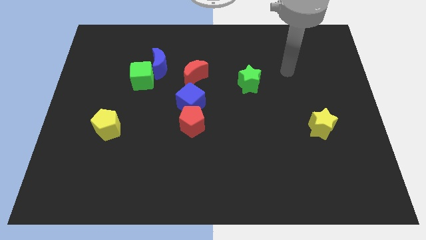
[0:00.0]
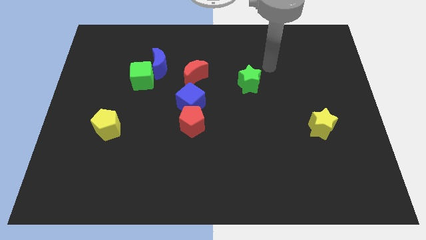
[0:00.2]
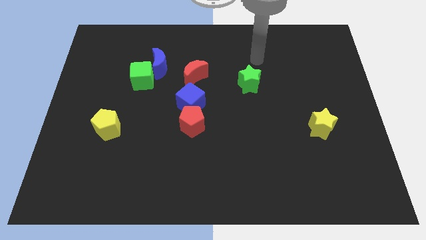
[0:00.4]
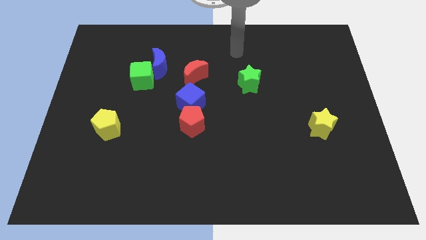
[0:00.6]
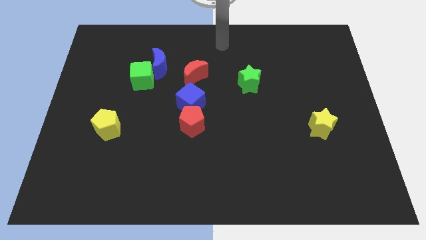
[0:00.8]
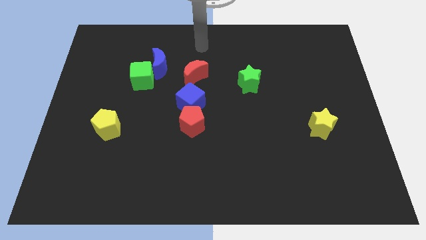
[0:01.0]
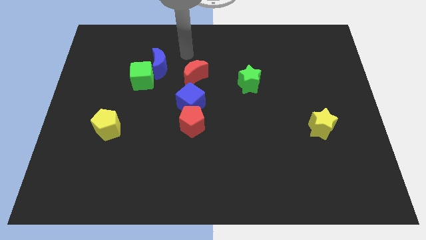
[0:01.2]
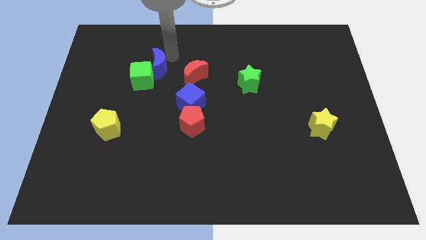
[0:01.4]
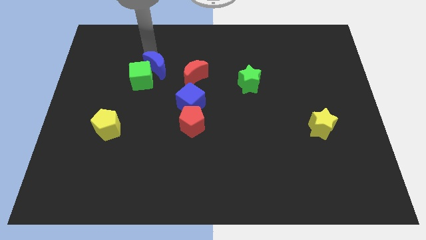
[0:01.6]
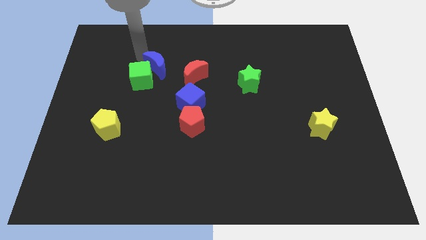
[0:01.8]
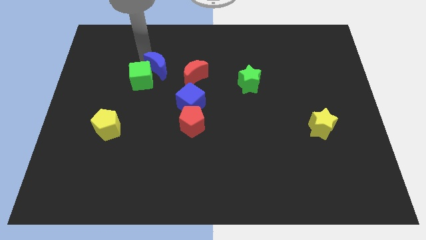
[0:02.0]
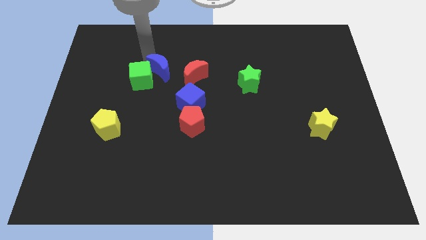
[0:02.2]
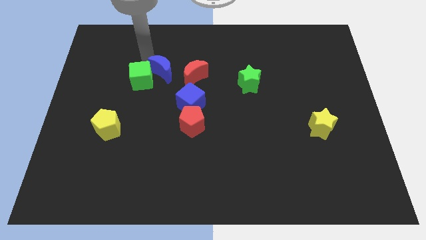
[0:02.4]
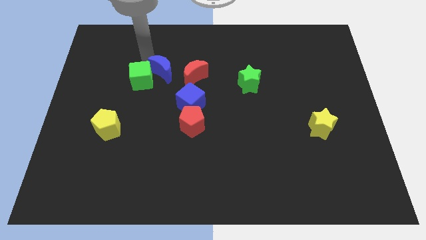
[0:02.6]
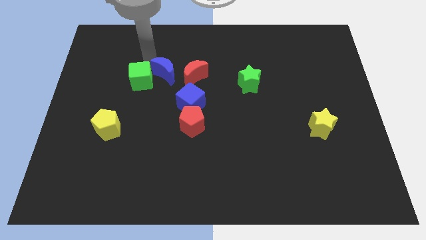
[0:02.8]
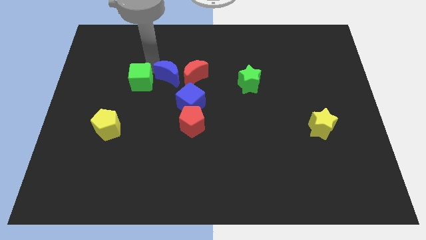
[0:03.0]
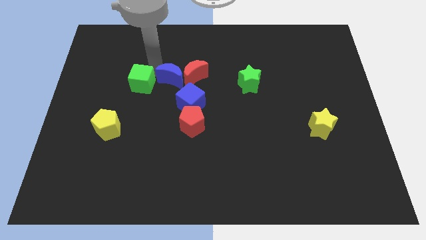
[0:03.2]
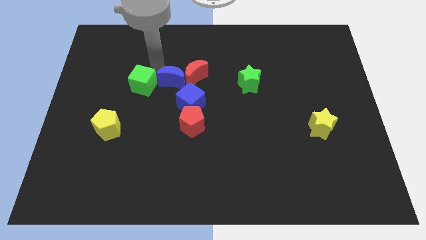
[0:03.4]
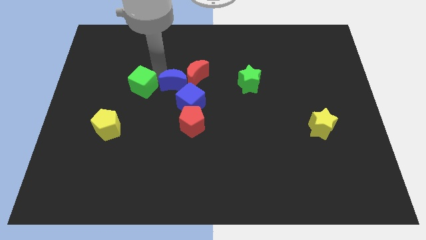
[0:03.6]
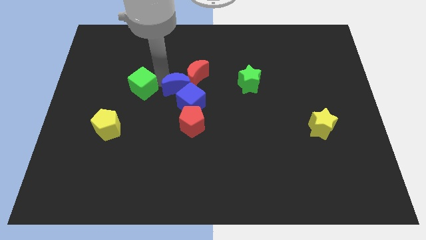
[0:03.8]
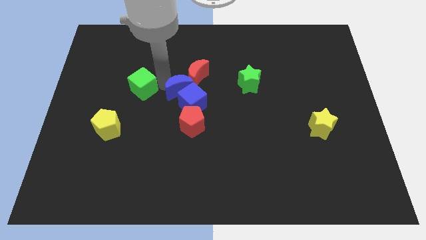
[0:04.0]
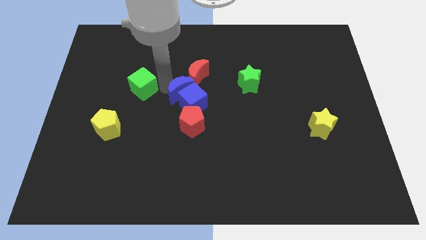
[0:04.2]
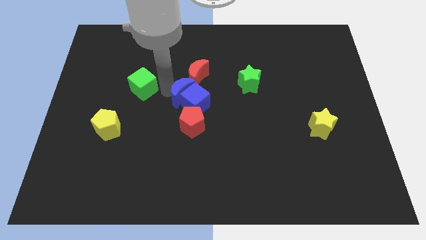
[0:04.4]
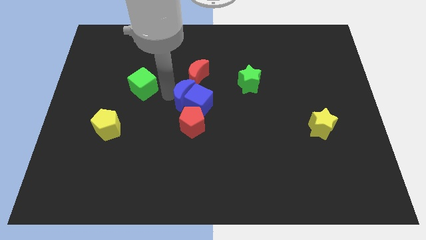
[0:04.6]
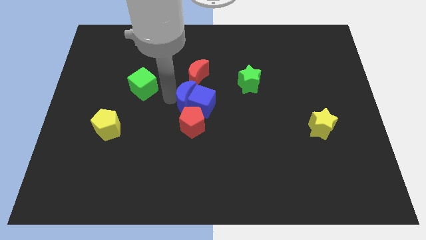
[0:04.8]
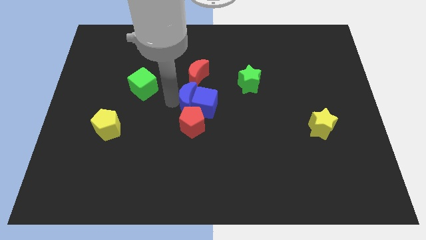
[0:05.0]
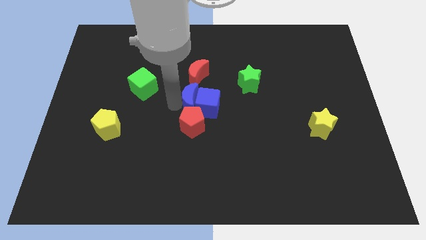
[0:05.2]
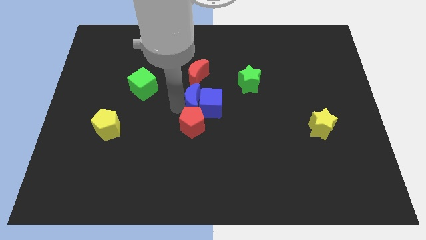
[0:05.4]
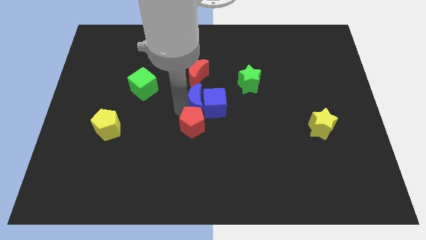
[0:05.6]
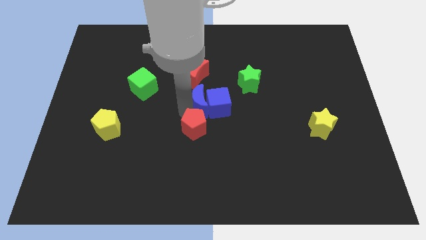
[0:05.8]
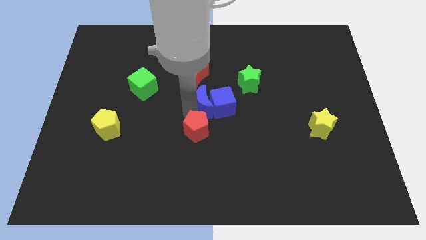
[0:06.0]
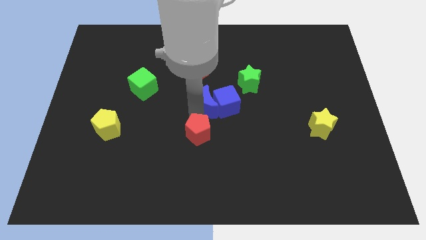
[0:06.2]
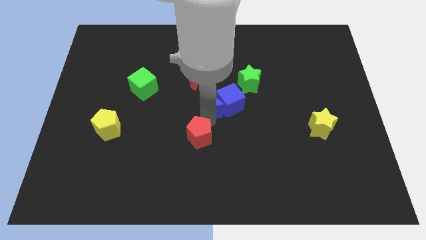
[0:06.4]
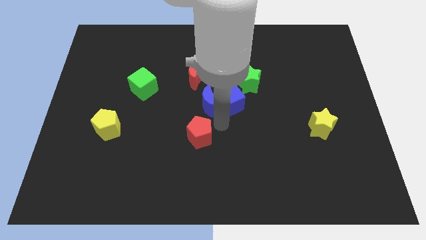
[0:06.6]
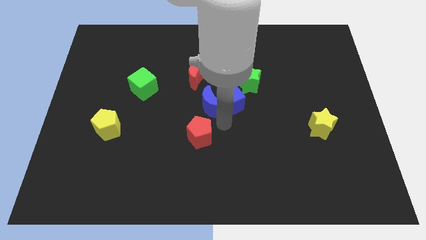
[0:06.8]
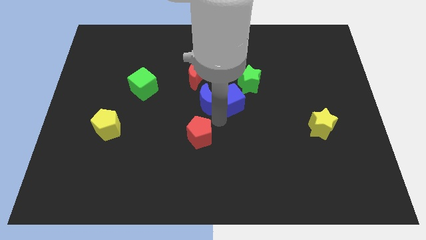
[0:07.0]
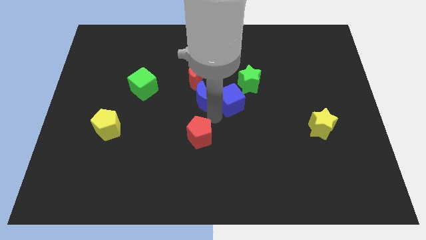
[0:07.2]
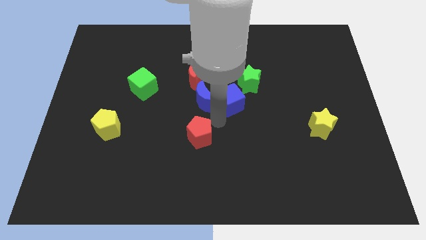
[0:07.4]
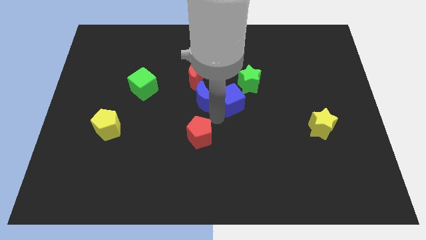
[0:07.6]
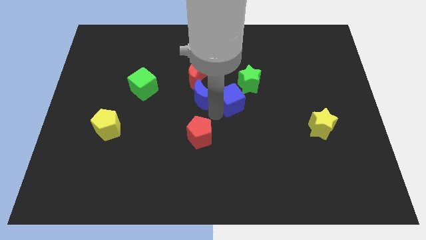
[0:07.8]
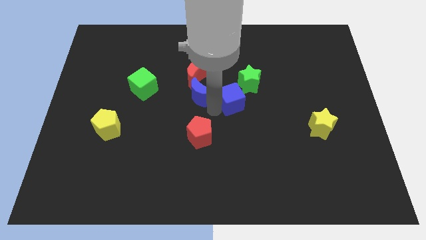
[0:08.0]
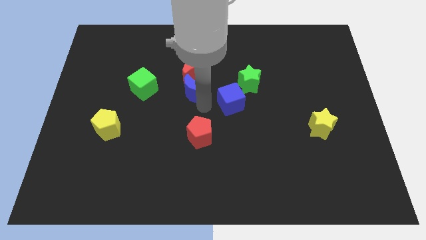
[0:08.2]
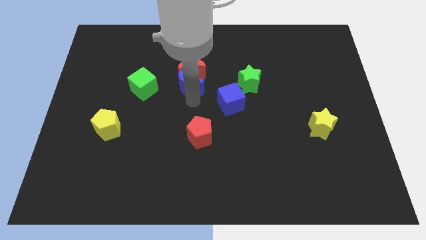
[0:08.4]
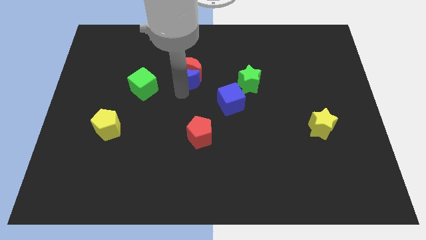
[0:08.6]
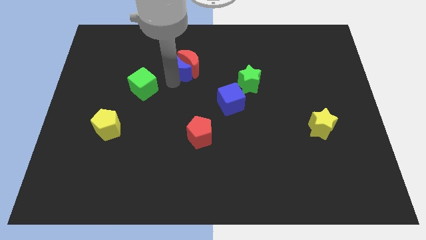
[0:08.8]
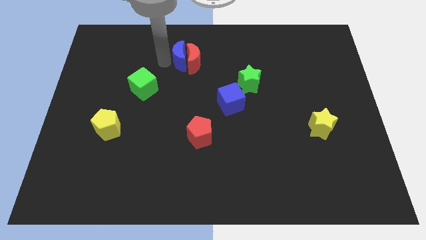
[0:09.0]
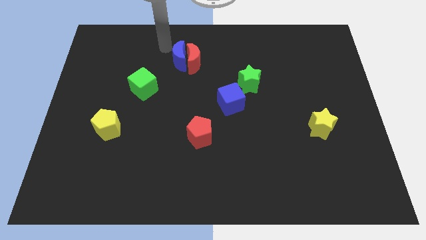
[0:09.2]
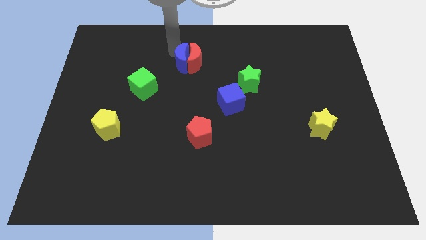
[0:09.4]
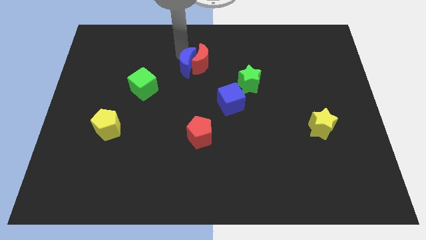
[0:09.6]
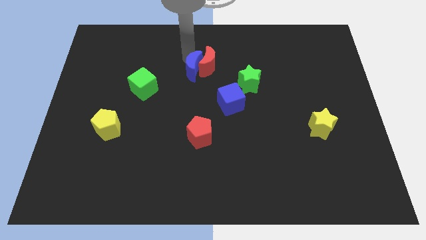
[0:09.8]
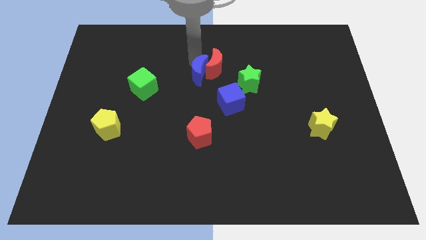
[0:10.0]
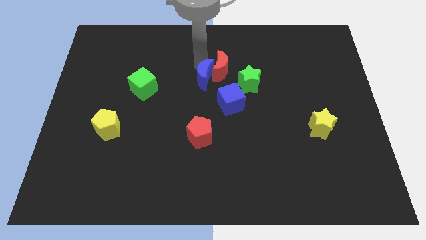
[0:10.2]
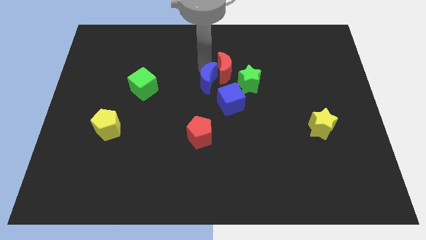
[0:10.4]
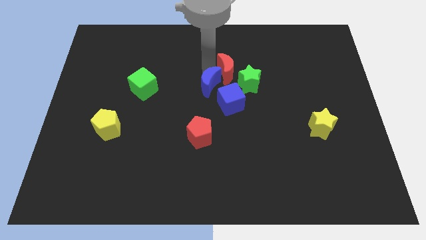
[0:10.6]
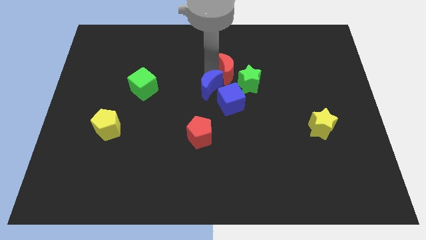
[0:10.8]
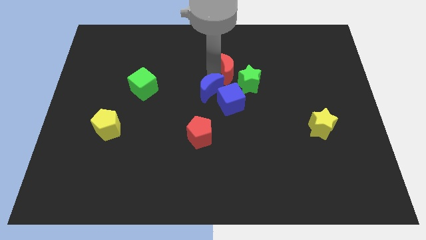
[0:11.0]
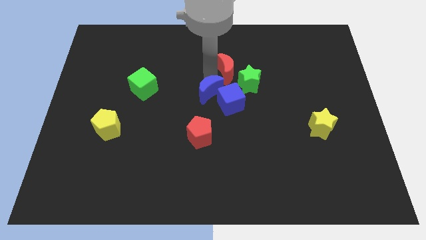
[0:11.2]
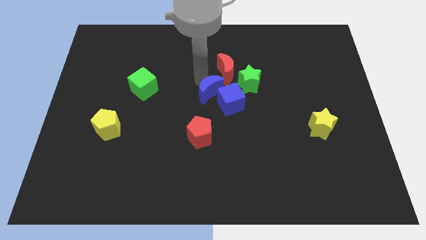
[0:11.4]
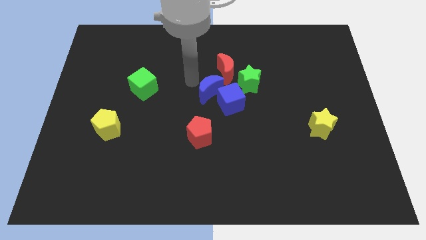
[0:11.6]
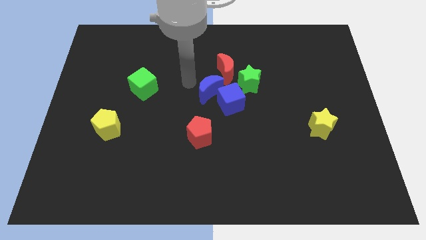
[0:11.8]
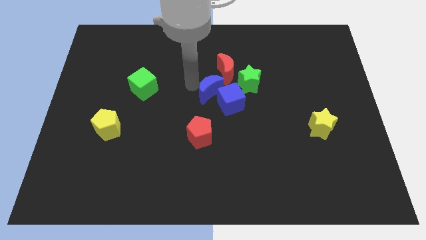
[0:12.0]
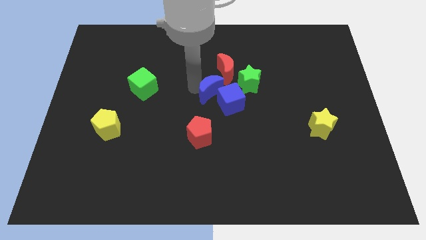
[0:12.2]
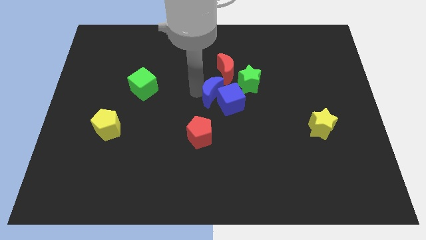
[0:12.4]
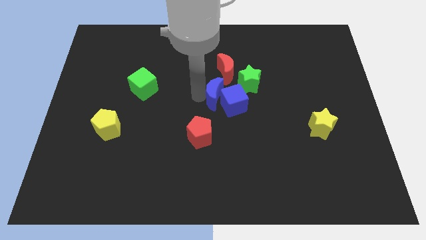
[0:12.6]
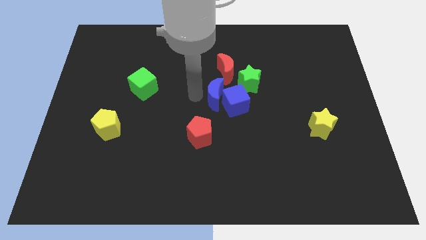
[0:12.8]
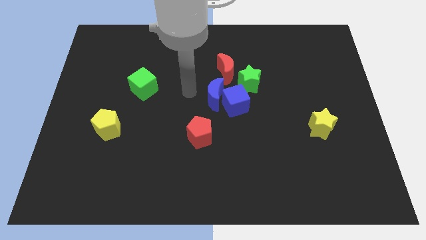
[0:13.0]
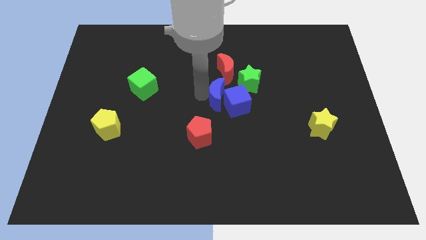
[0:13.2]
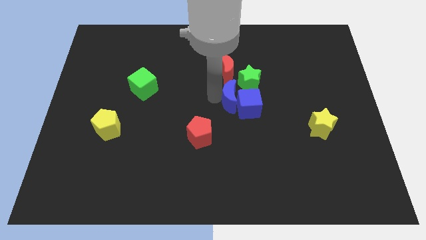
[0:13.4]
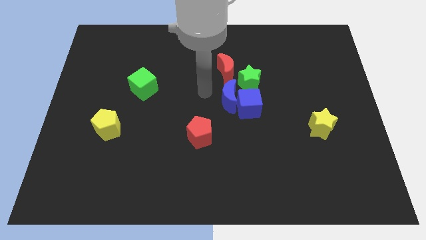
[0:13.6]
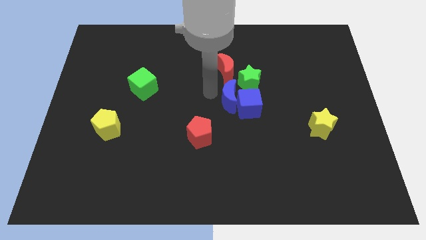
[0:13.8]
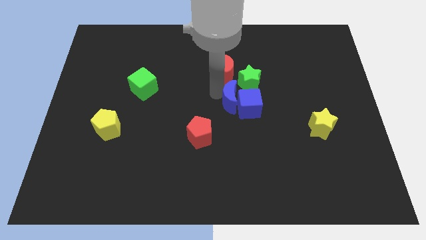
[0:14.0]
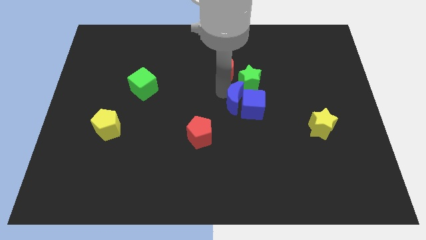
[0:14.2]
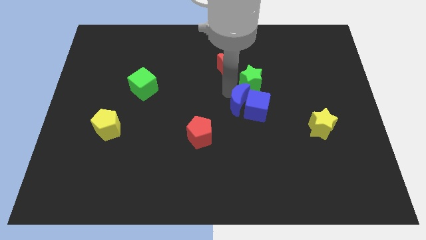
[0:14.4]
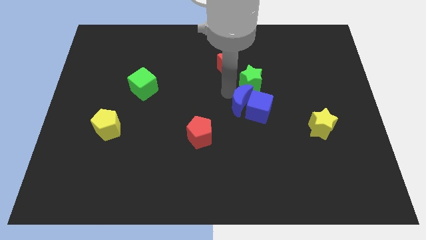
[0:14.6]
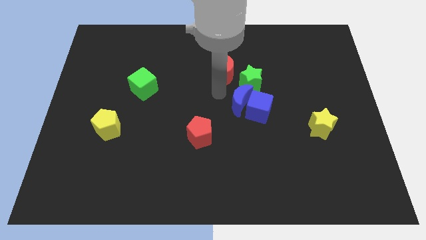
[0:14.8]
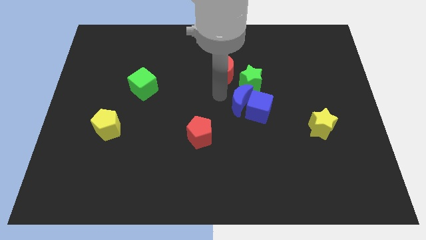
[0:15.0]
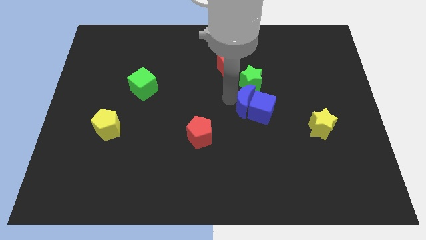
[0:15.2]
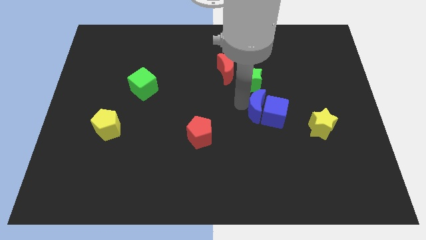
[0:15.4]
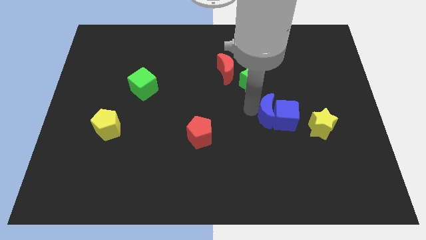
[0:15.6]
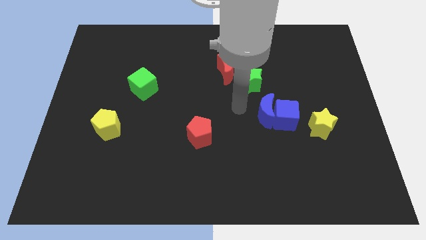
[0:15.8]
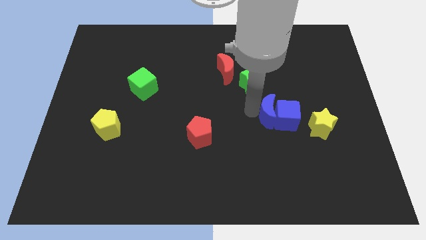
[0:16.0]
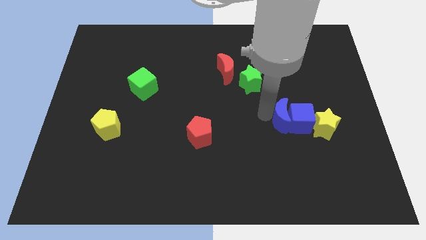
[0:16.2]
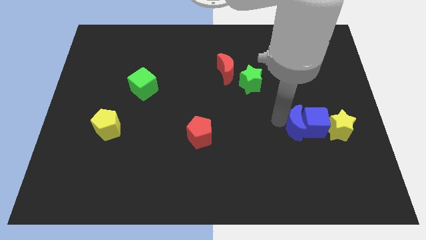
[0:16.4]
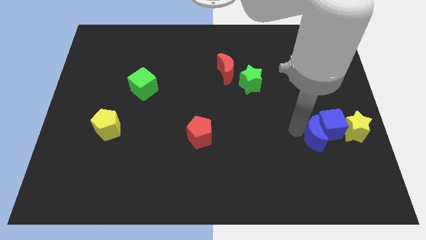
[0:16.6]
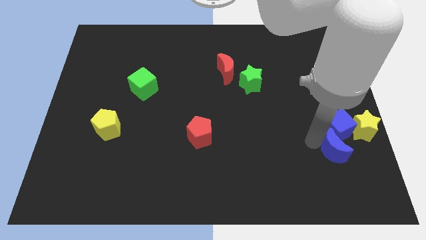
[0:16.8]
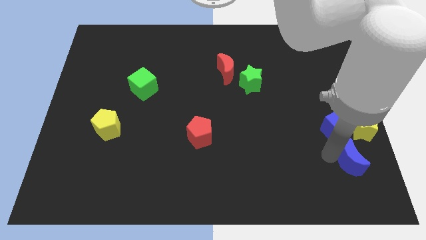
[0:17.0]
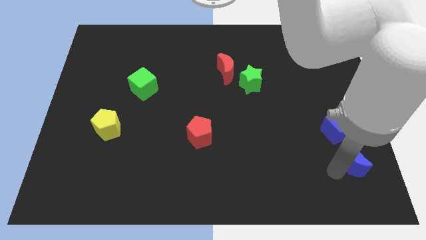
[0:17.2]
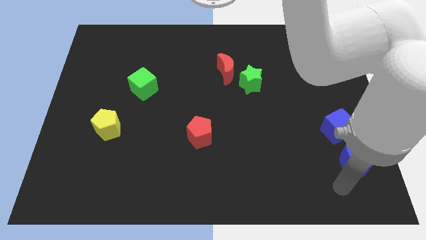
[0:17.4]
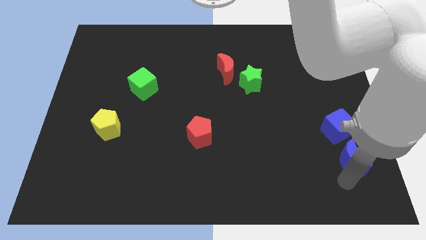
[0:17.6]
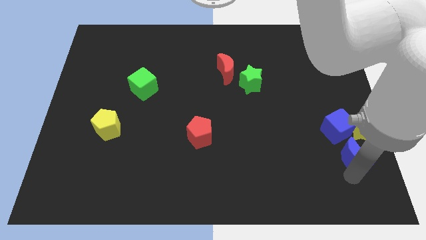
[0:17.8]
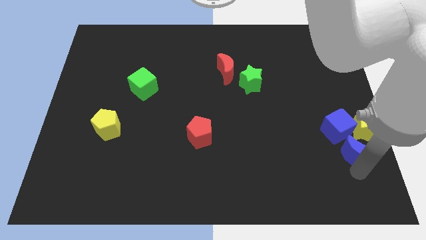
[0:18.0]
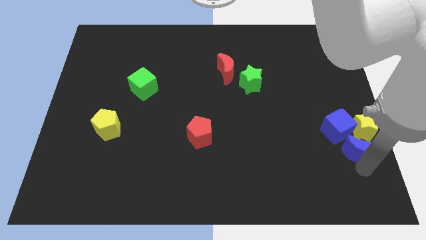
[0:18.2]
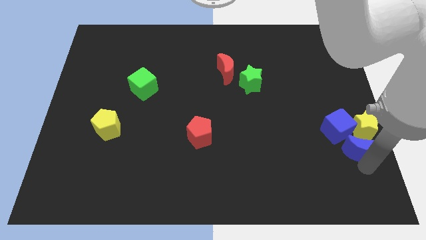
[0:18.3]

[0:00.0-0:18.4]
move the blue moon towards the yellow star
